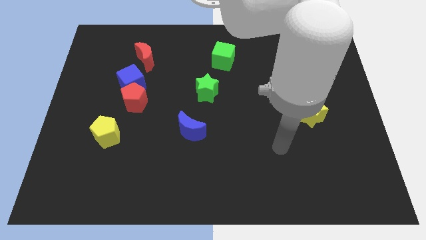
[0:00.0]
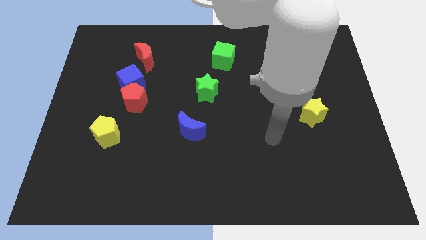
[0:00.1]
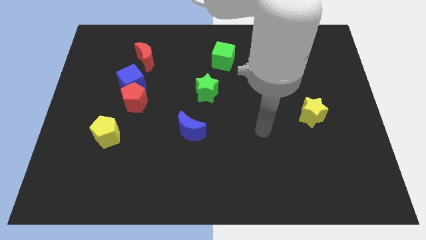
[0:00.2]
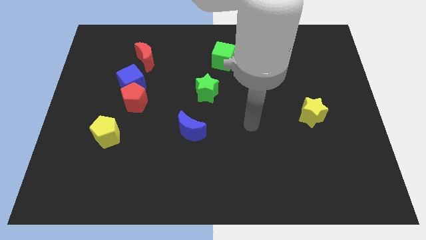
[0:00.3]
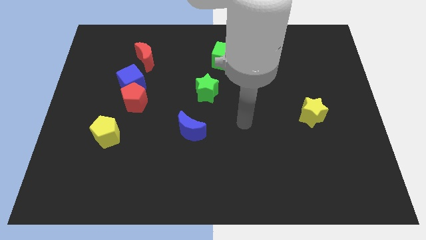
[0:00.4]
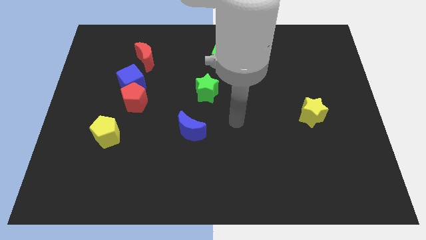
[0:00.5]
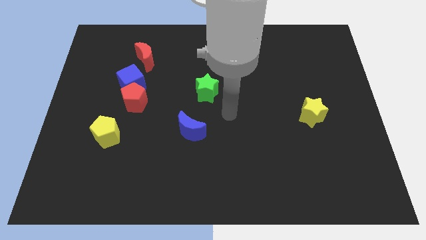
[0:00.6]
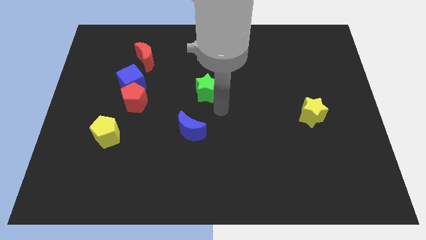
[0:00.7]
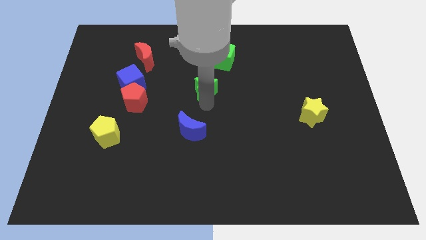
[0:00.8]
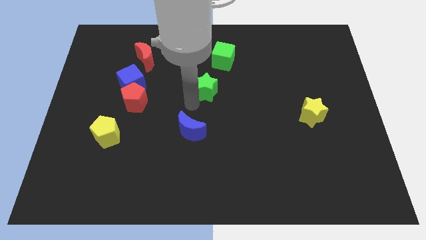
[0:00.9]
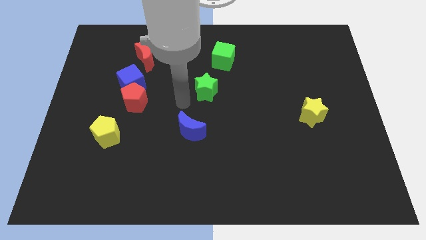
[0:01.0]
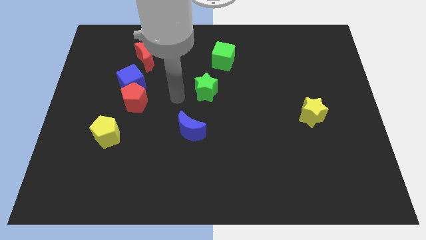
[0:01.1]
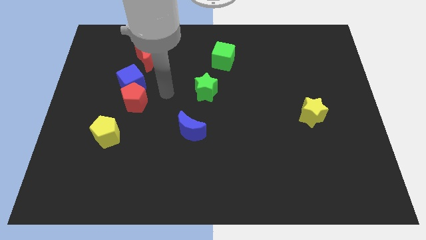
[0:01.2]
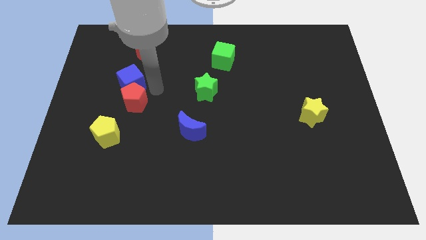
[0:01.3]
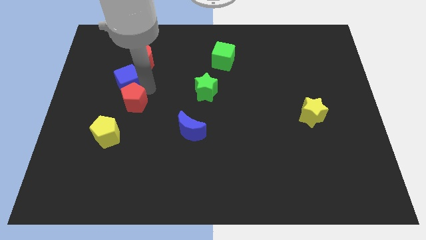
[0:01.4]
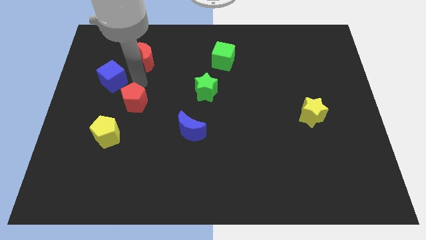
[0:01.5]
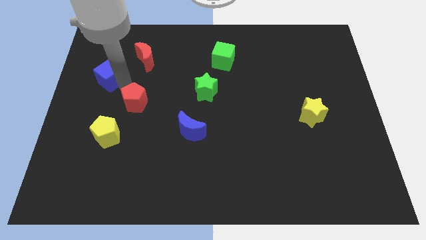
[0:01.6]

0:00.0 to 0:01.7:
pull the red pentagon apart from the blue cube

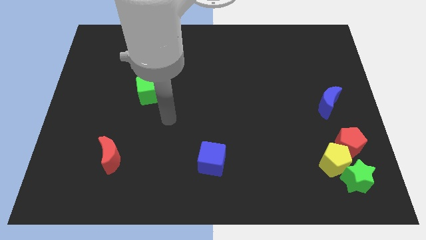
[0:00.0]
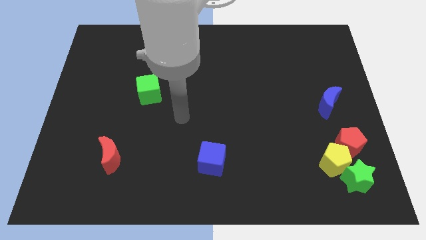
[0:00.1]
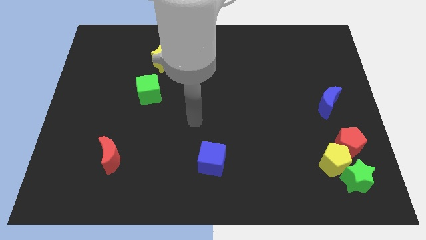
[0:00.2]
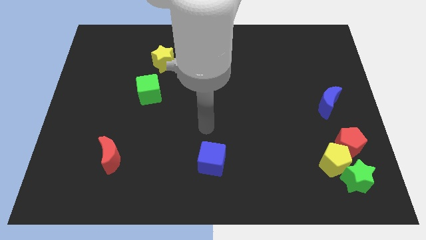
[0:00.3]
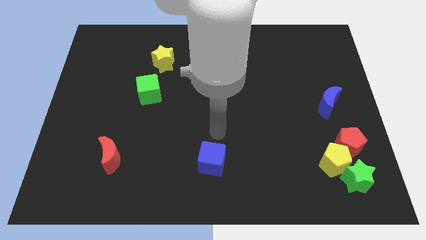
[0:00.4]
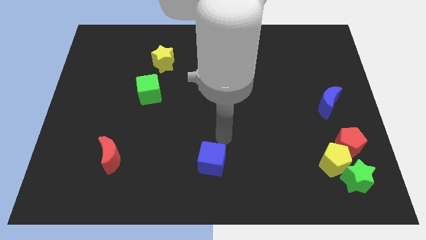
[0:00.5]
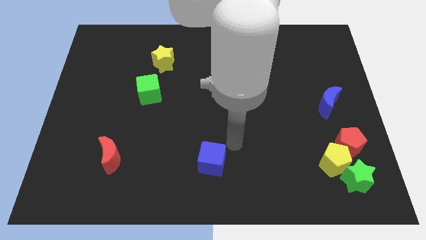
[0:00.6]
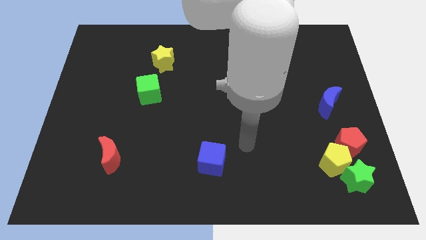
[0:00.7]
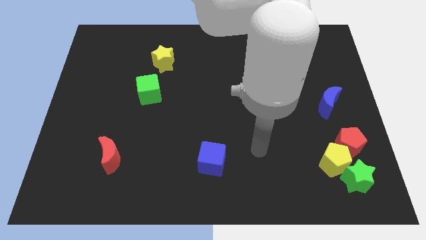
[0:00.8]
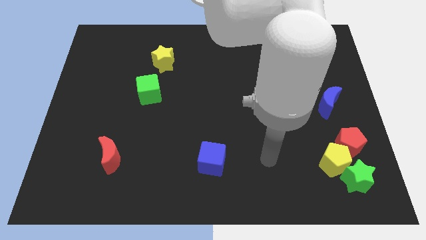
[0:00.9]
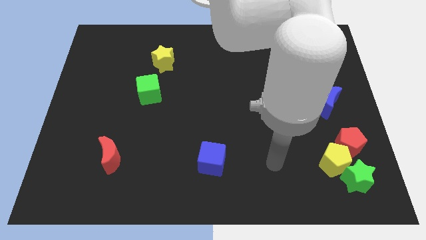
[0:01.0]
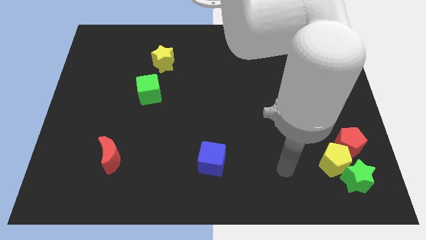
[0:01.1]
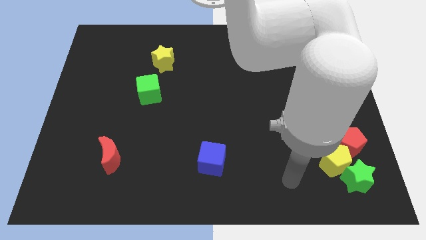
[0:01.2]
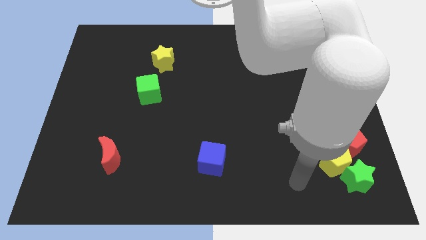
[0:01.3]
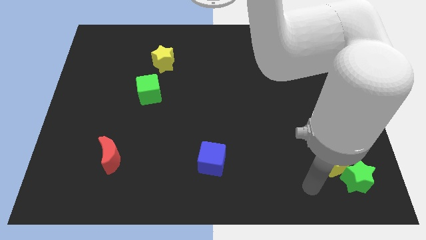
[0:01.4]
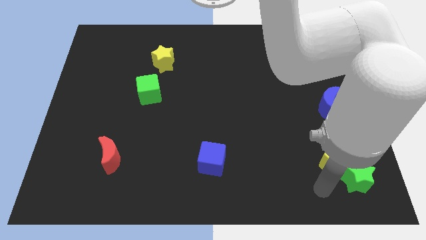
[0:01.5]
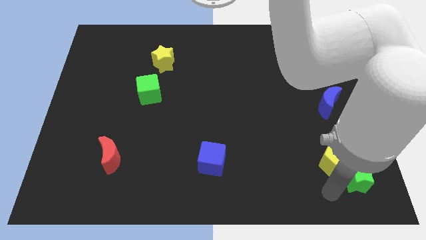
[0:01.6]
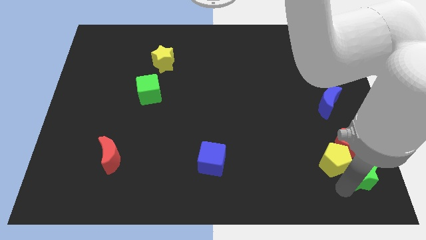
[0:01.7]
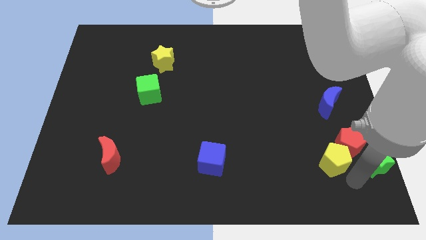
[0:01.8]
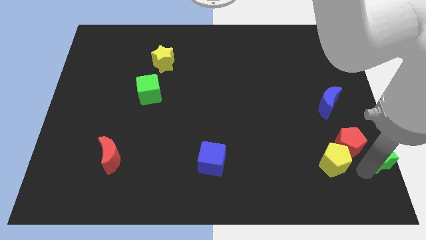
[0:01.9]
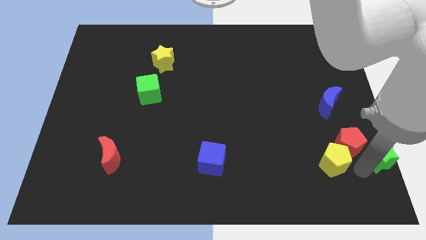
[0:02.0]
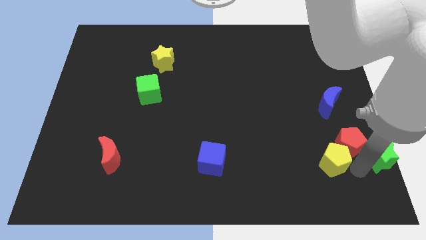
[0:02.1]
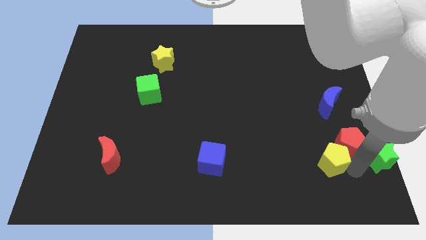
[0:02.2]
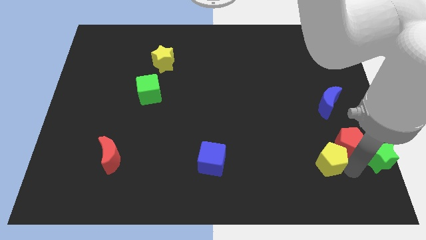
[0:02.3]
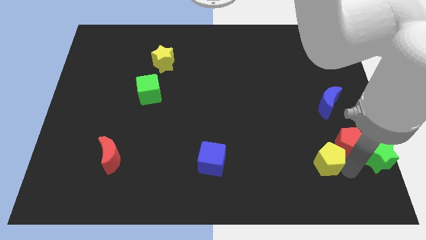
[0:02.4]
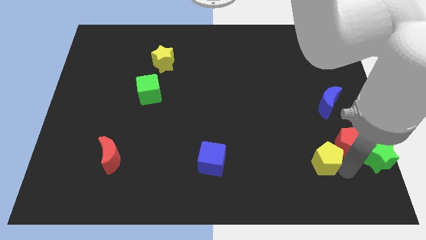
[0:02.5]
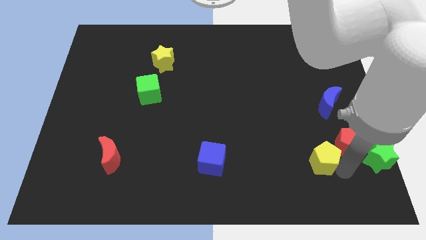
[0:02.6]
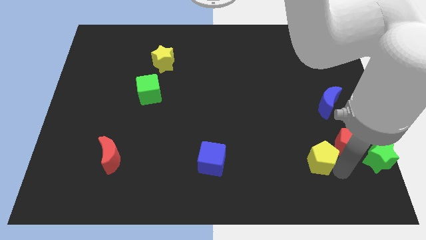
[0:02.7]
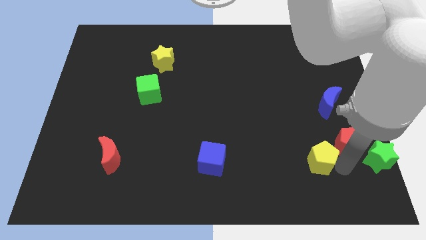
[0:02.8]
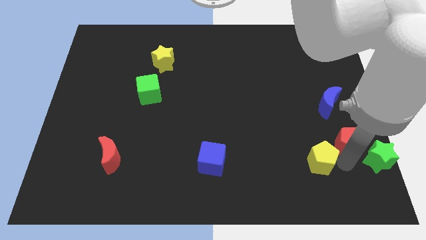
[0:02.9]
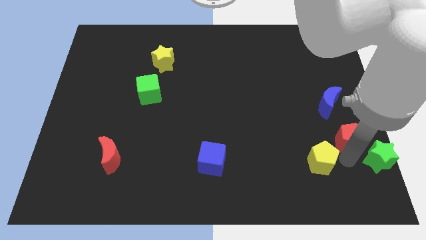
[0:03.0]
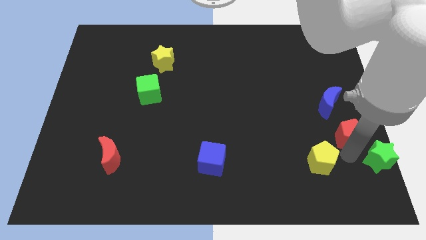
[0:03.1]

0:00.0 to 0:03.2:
separate the yellow pentagon from the green star and red pentagon

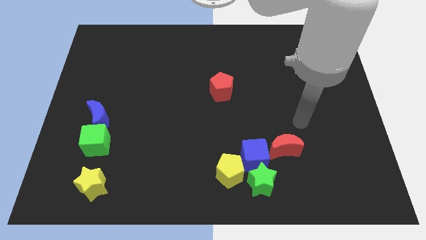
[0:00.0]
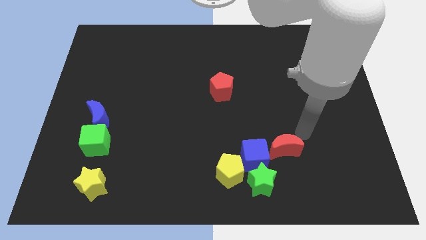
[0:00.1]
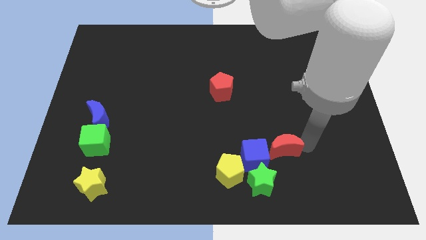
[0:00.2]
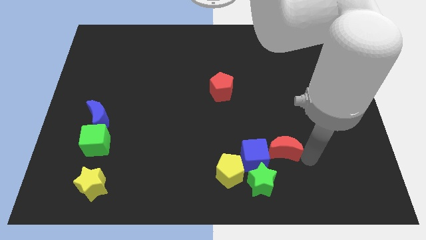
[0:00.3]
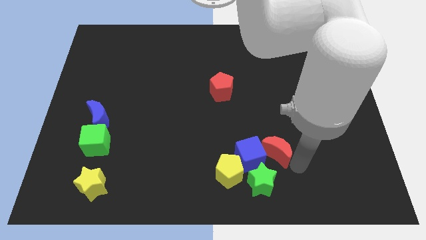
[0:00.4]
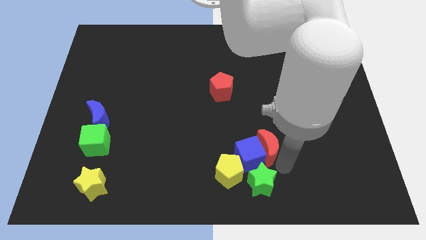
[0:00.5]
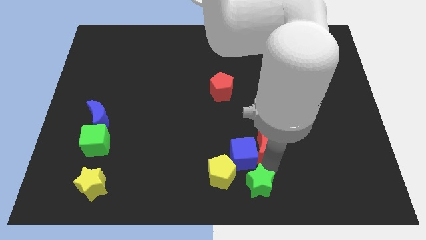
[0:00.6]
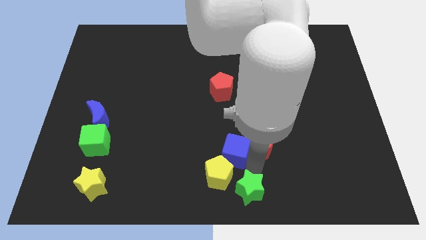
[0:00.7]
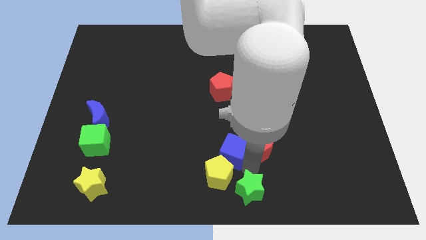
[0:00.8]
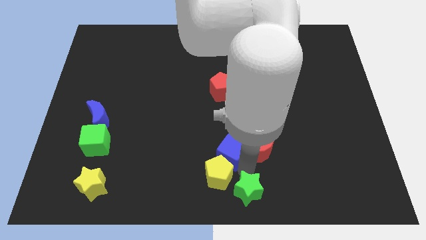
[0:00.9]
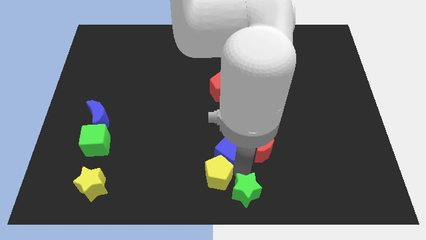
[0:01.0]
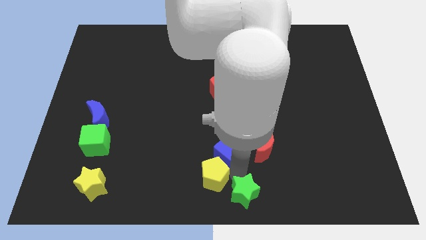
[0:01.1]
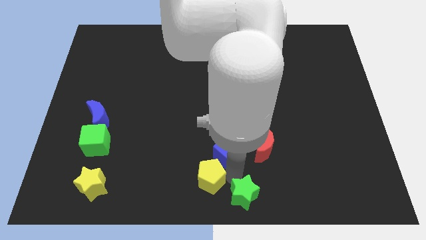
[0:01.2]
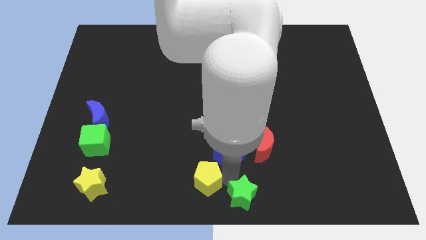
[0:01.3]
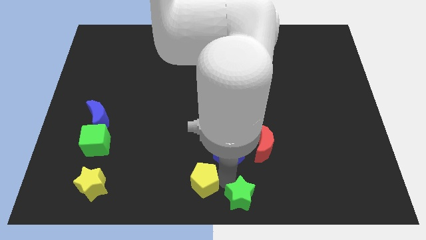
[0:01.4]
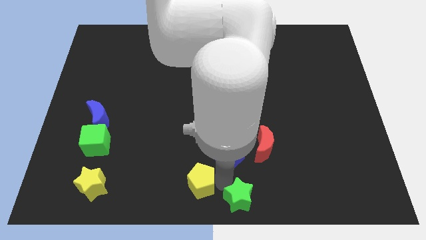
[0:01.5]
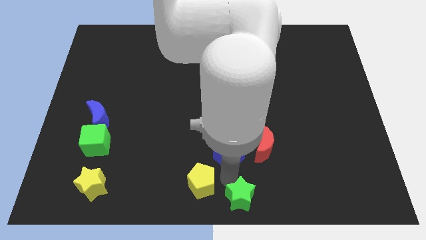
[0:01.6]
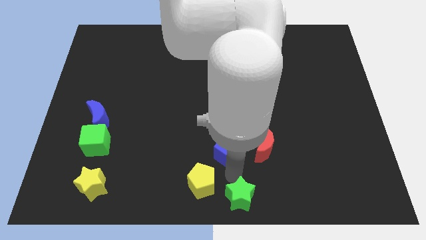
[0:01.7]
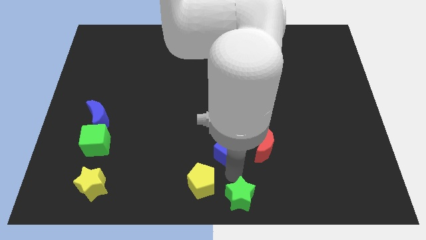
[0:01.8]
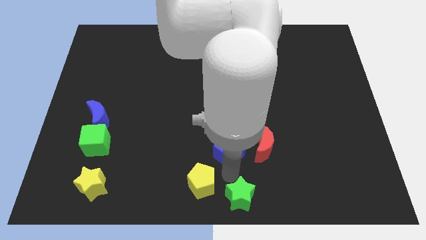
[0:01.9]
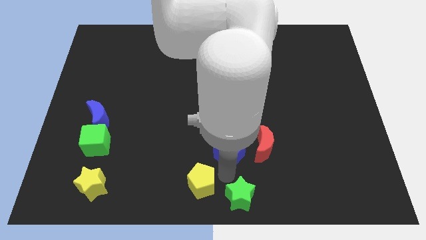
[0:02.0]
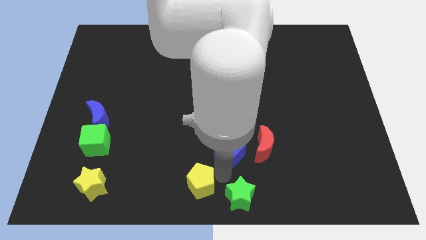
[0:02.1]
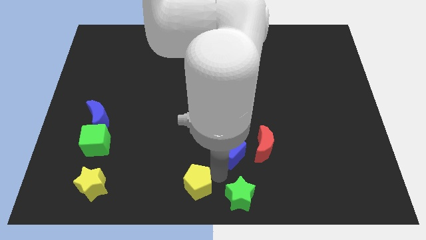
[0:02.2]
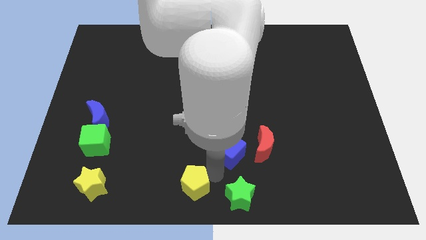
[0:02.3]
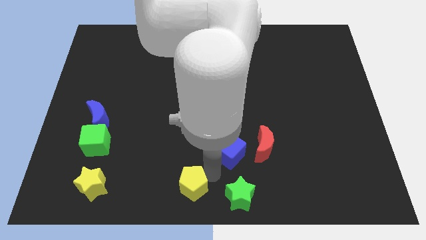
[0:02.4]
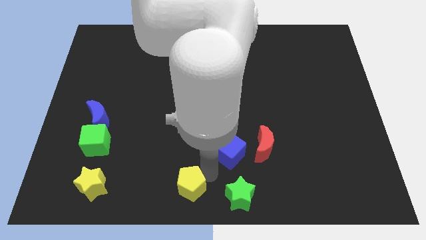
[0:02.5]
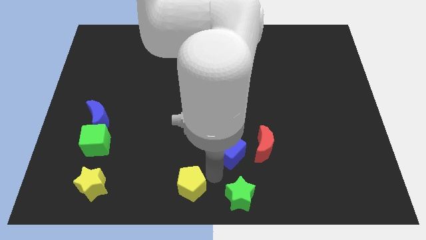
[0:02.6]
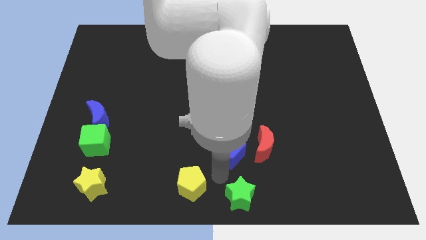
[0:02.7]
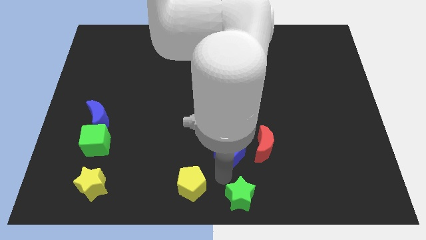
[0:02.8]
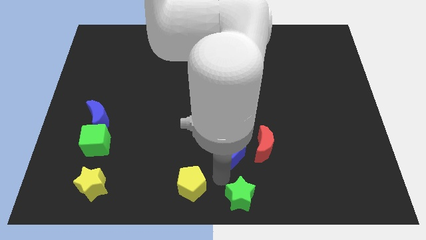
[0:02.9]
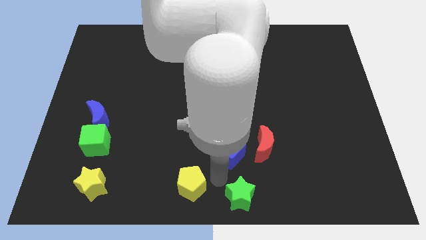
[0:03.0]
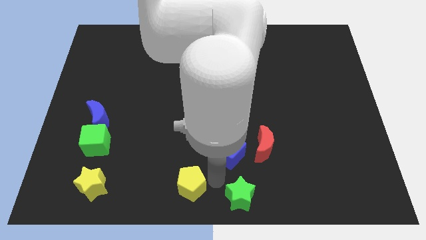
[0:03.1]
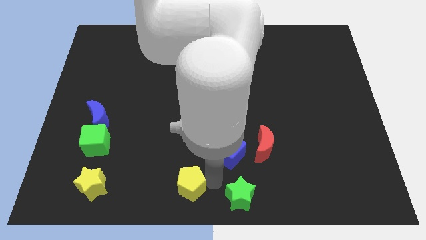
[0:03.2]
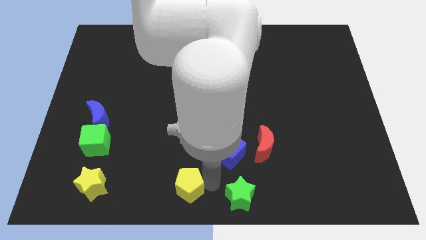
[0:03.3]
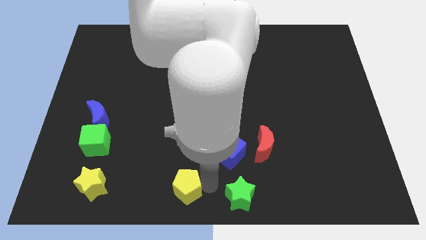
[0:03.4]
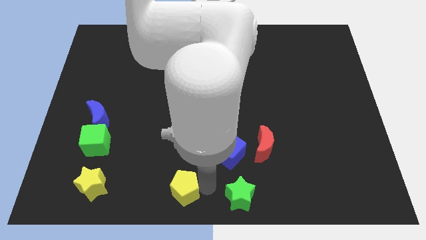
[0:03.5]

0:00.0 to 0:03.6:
separate the yellow pentagon from the blue cube and green star

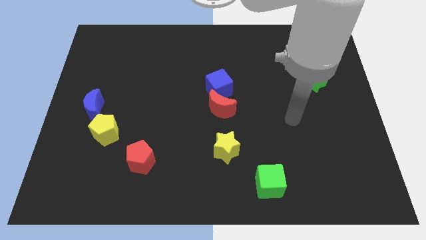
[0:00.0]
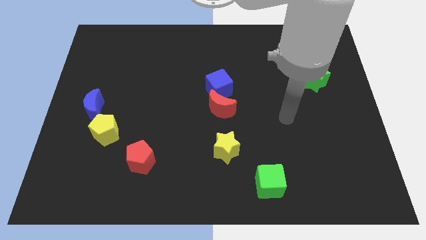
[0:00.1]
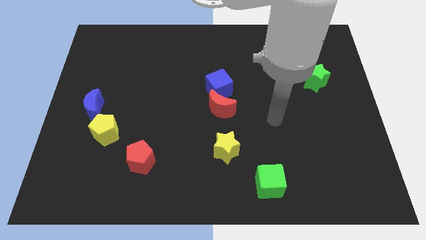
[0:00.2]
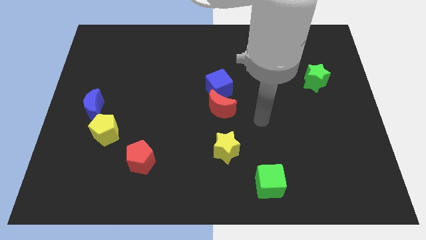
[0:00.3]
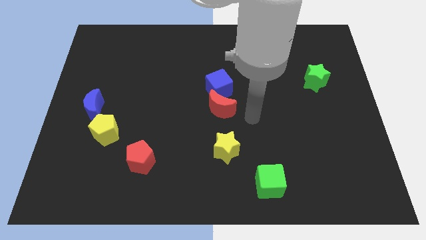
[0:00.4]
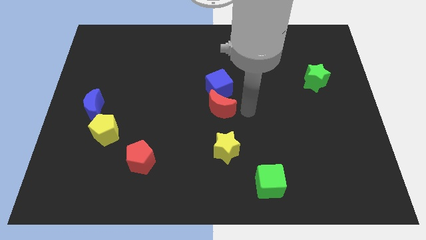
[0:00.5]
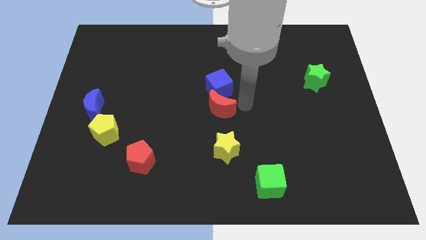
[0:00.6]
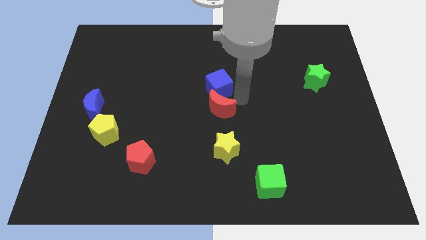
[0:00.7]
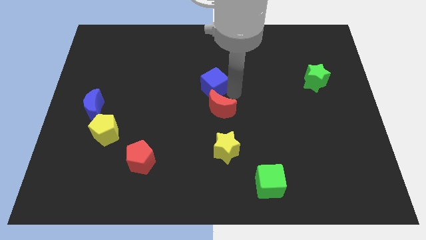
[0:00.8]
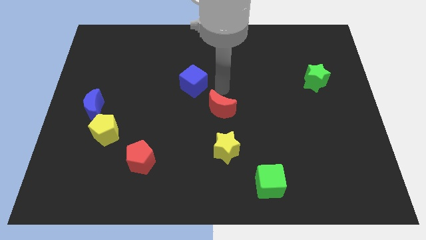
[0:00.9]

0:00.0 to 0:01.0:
pull the red moon apart from the blue cube

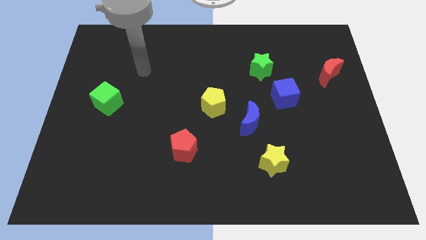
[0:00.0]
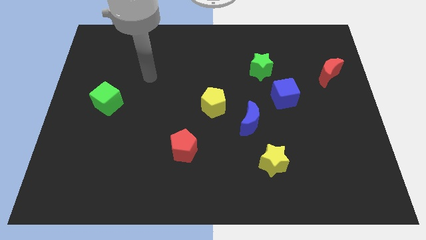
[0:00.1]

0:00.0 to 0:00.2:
pull the blue moon apart from the yellow pentagon
